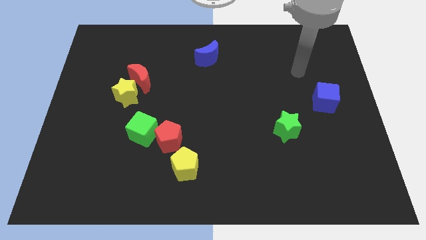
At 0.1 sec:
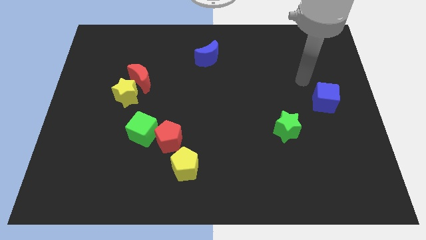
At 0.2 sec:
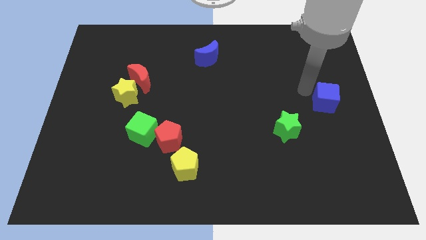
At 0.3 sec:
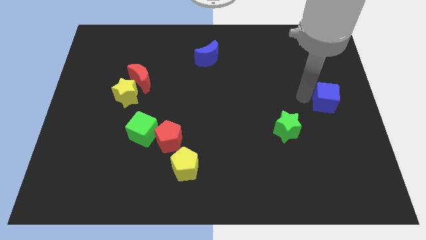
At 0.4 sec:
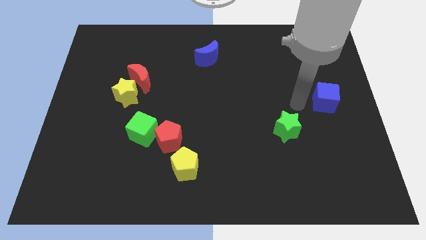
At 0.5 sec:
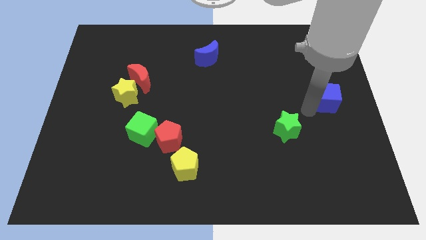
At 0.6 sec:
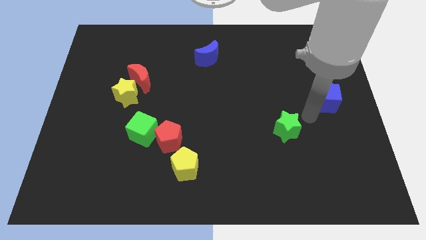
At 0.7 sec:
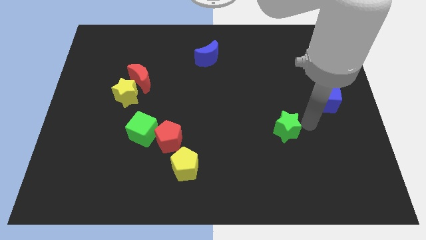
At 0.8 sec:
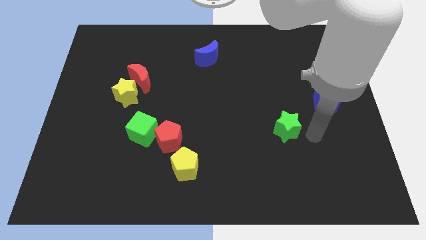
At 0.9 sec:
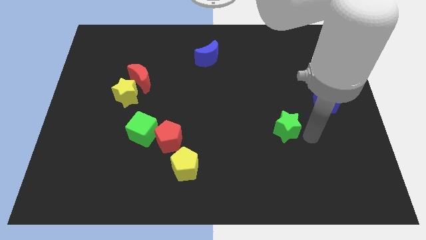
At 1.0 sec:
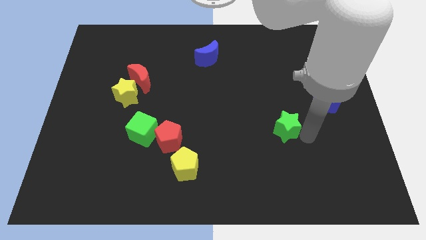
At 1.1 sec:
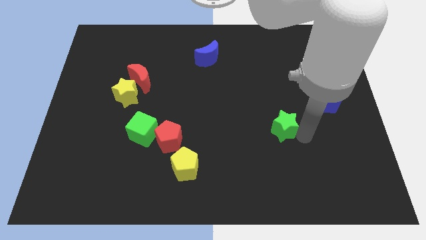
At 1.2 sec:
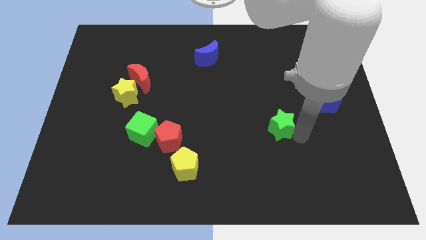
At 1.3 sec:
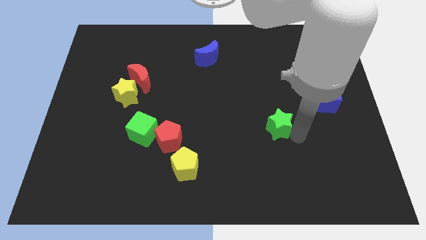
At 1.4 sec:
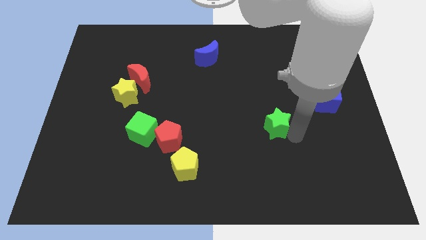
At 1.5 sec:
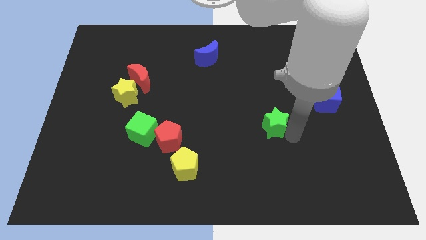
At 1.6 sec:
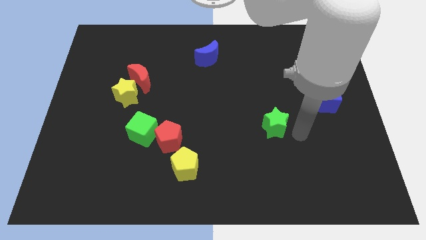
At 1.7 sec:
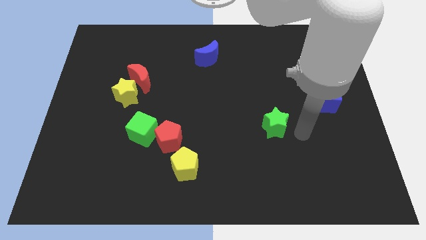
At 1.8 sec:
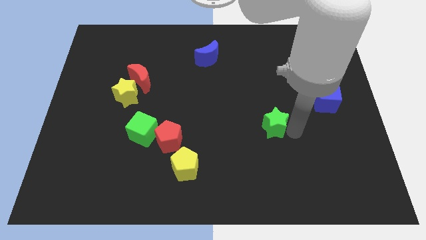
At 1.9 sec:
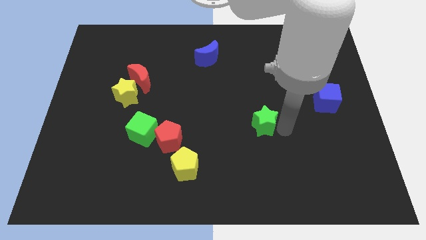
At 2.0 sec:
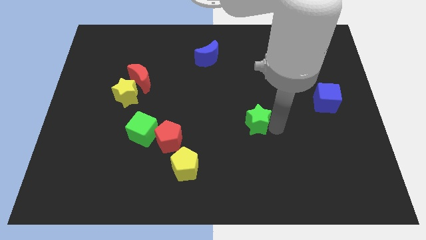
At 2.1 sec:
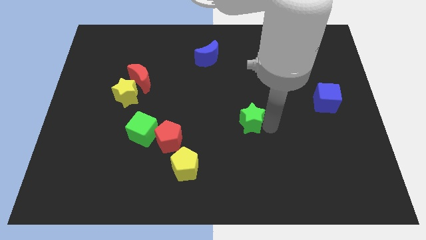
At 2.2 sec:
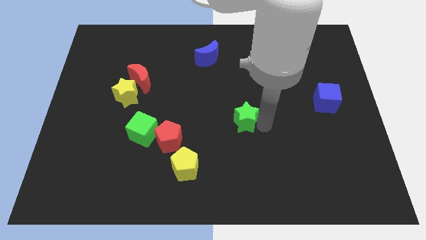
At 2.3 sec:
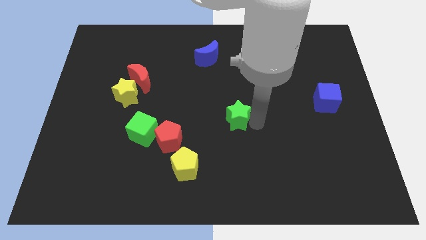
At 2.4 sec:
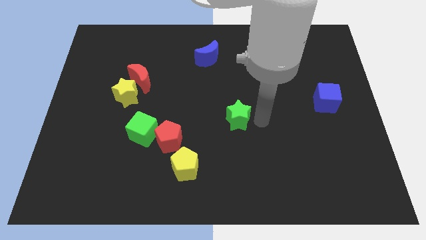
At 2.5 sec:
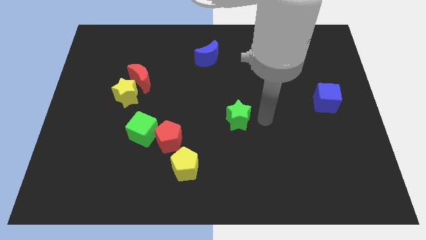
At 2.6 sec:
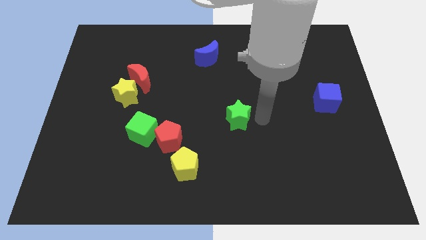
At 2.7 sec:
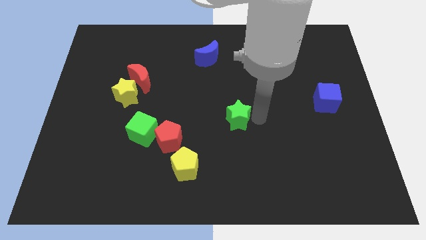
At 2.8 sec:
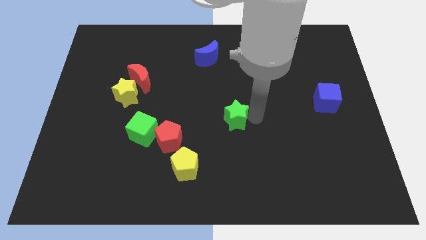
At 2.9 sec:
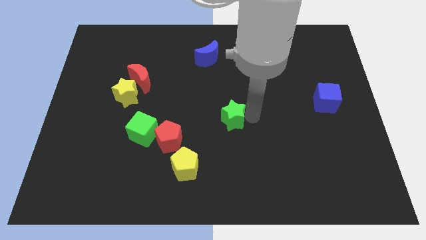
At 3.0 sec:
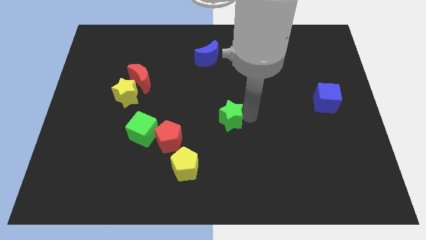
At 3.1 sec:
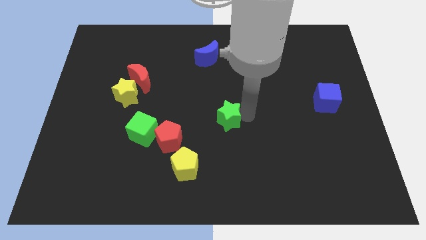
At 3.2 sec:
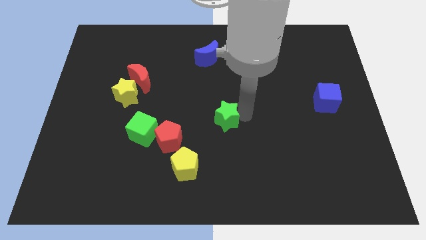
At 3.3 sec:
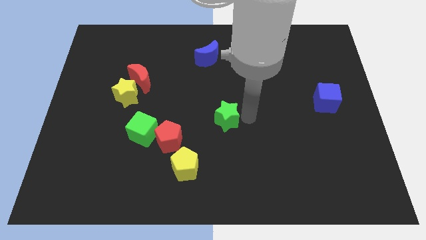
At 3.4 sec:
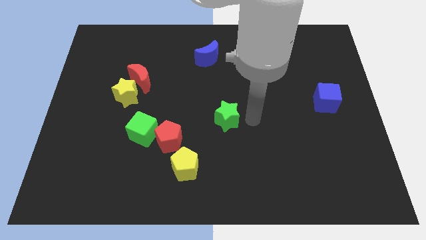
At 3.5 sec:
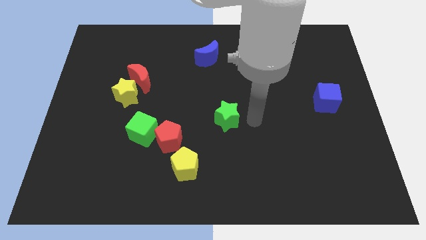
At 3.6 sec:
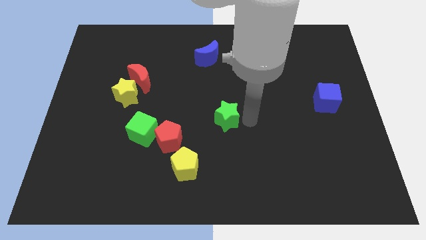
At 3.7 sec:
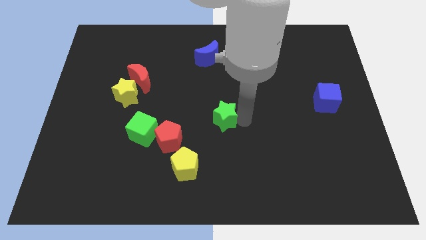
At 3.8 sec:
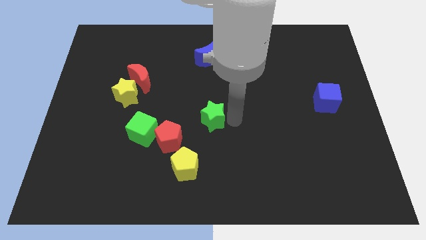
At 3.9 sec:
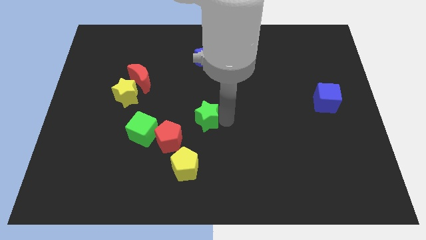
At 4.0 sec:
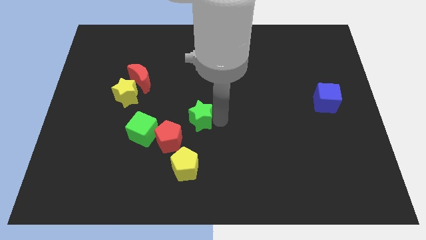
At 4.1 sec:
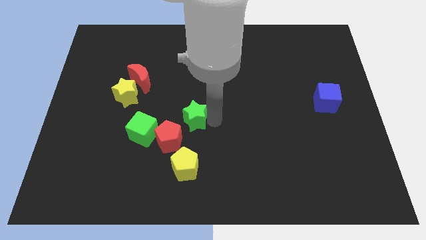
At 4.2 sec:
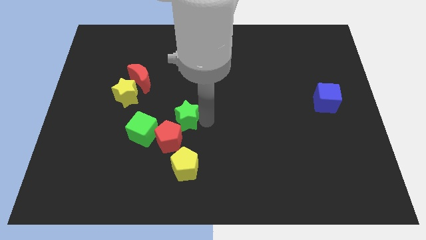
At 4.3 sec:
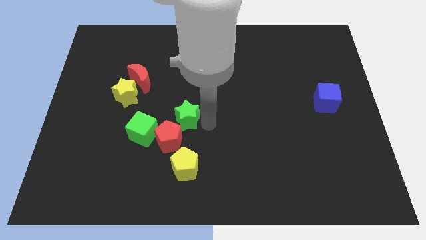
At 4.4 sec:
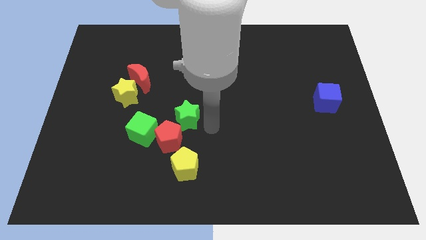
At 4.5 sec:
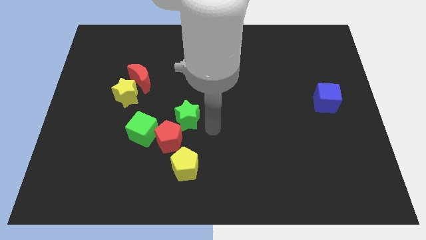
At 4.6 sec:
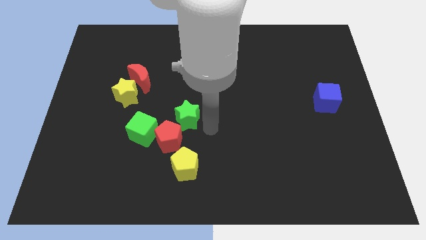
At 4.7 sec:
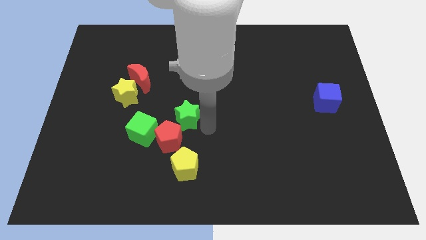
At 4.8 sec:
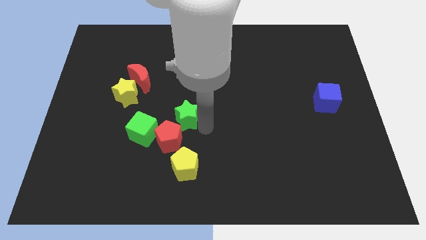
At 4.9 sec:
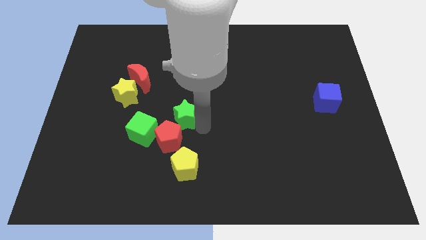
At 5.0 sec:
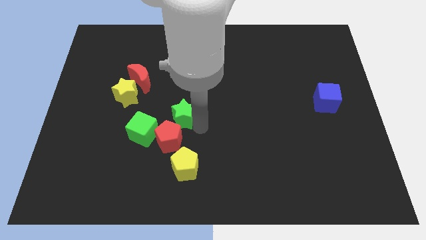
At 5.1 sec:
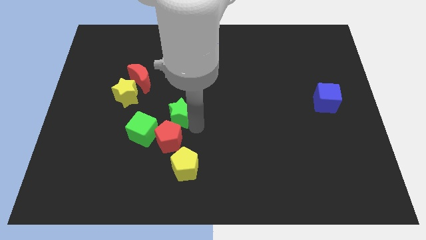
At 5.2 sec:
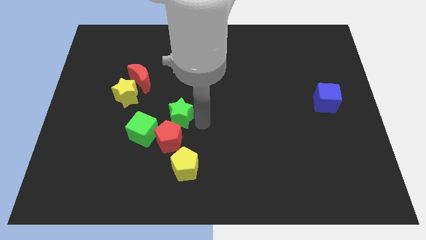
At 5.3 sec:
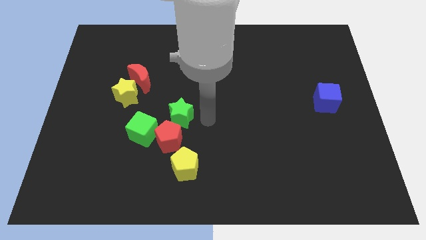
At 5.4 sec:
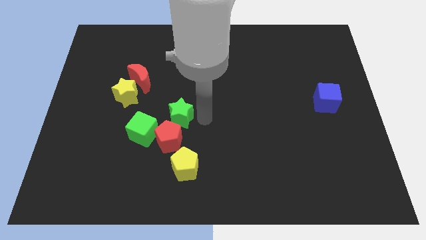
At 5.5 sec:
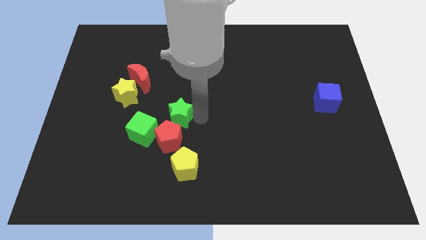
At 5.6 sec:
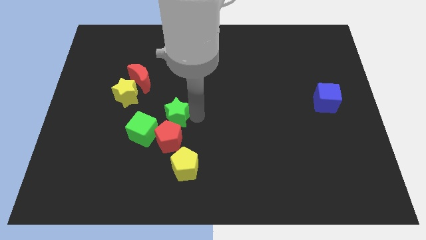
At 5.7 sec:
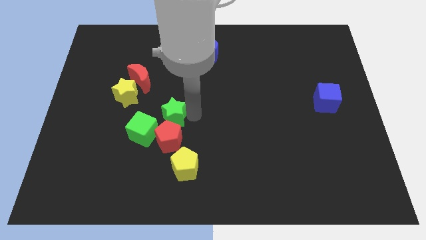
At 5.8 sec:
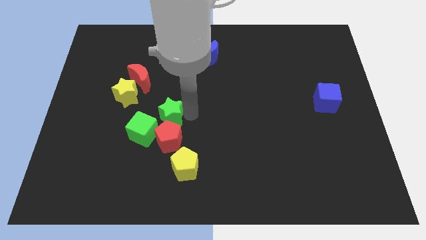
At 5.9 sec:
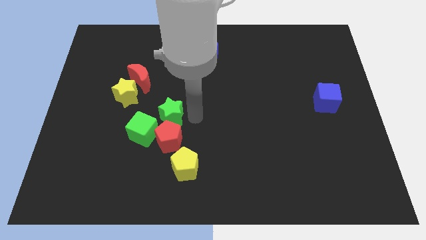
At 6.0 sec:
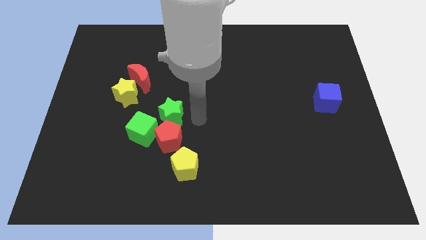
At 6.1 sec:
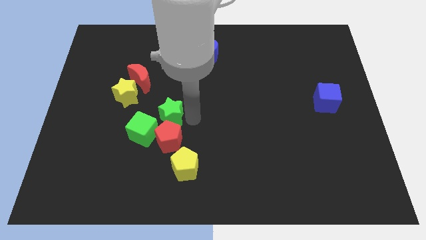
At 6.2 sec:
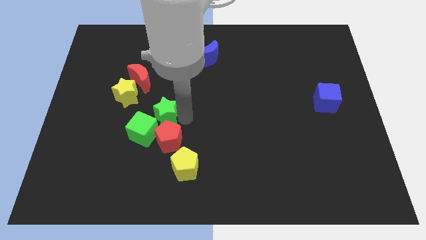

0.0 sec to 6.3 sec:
slide the green star to the bottom right of the yellow star
